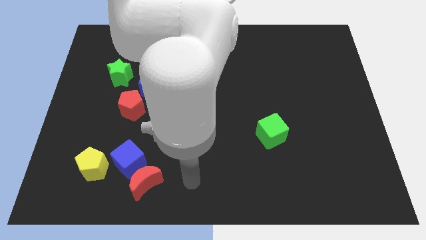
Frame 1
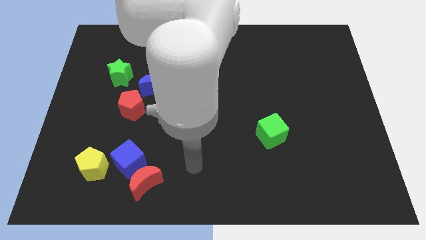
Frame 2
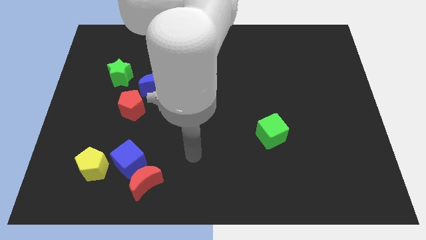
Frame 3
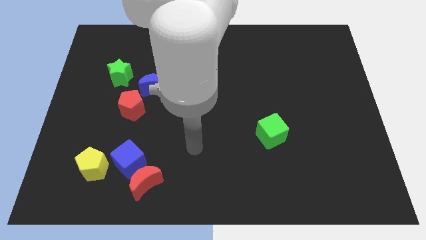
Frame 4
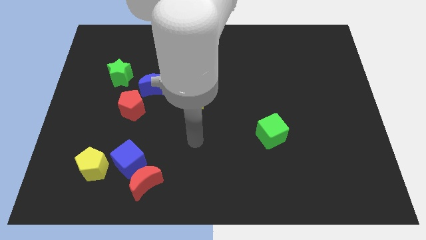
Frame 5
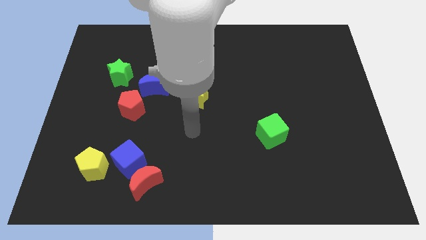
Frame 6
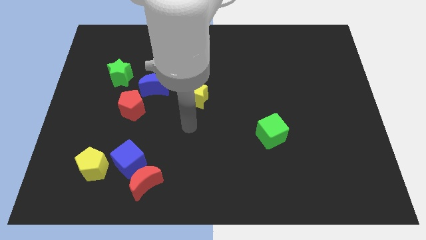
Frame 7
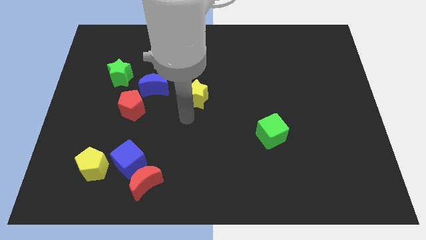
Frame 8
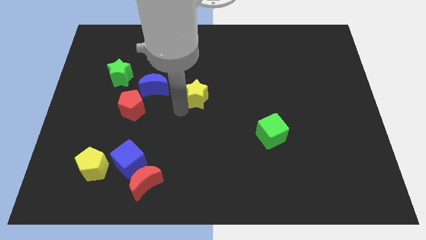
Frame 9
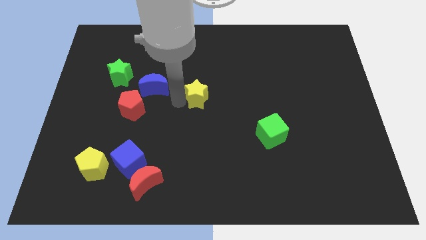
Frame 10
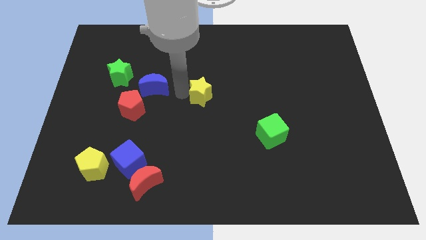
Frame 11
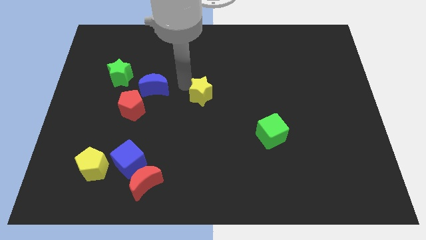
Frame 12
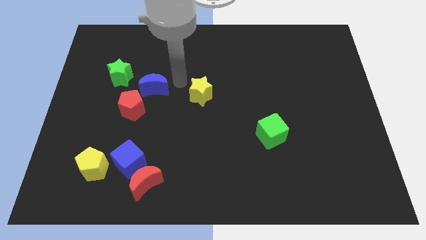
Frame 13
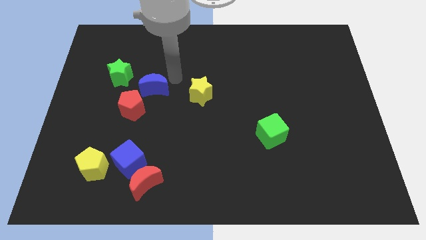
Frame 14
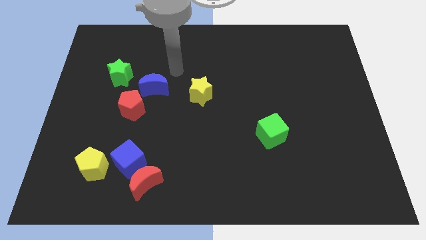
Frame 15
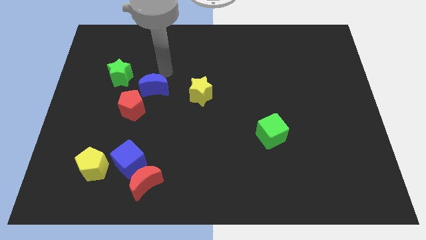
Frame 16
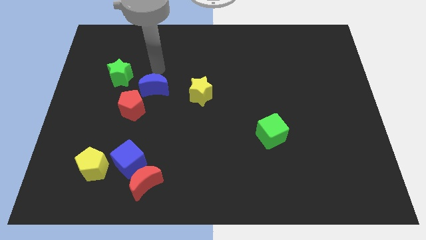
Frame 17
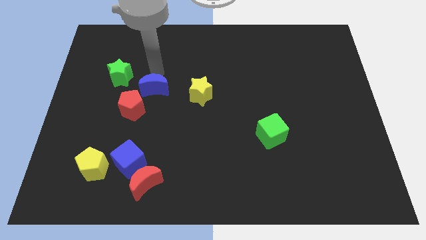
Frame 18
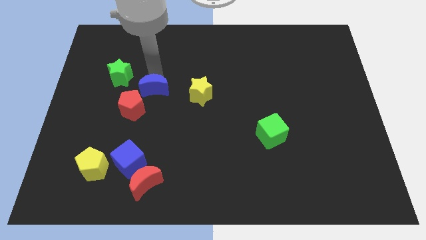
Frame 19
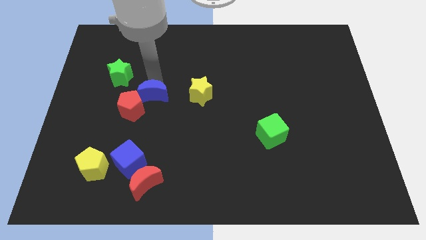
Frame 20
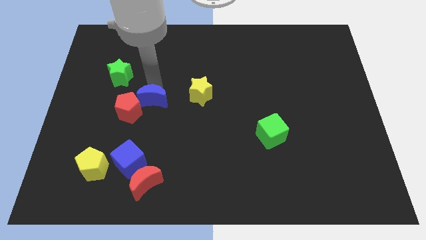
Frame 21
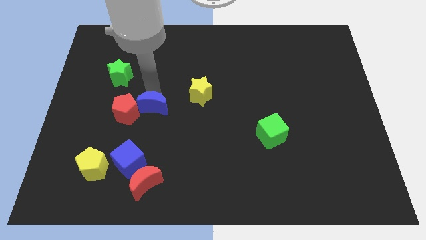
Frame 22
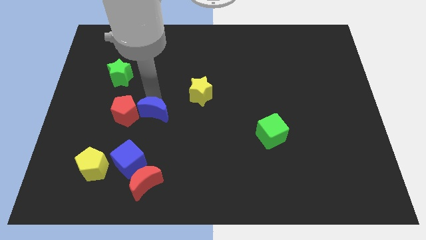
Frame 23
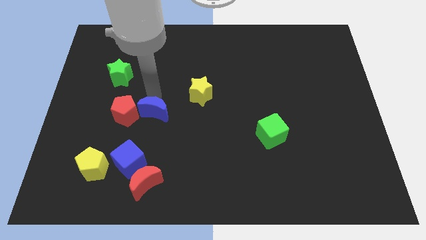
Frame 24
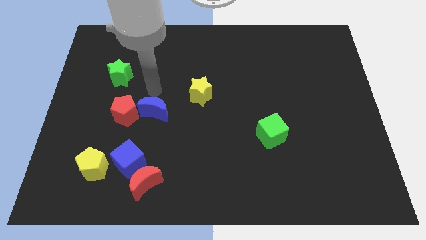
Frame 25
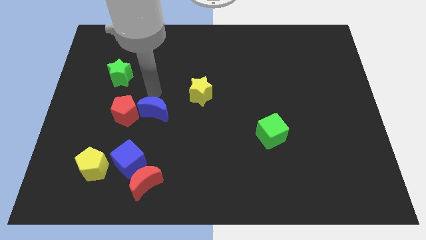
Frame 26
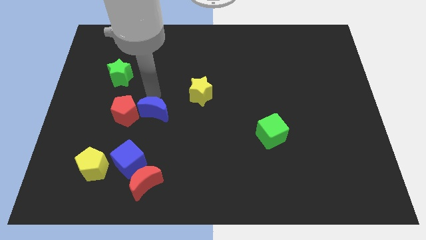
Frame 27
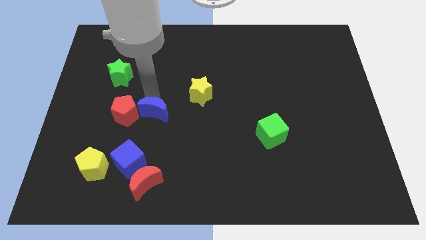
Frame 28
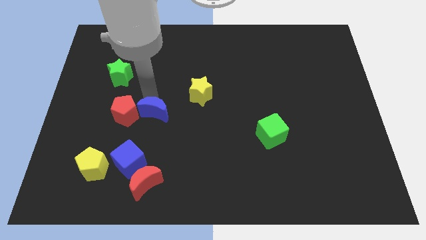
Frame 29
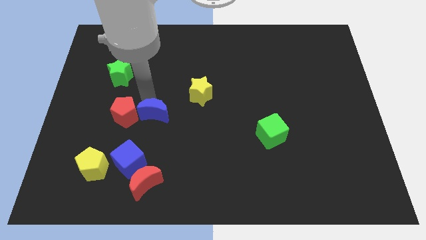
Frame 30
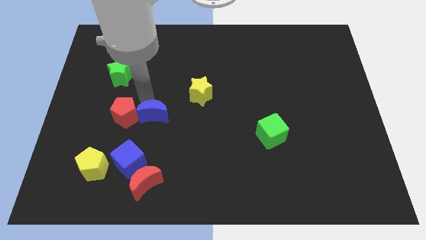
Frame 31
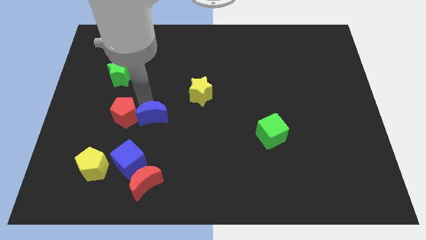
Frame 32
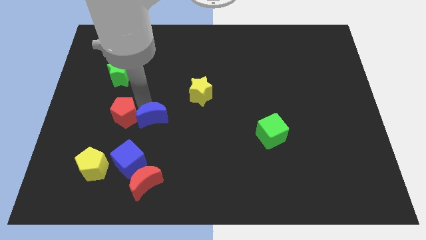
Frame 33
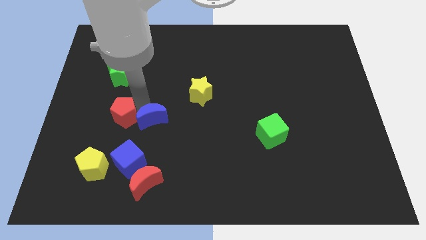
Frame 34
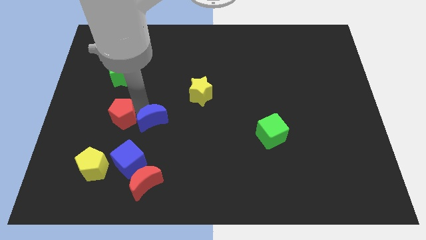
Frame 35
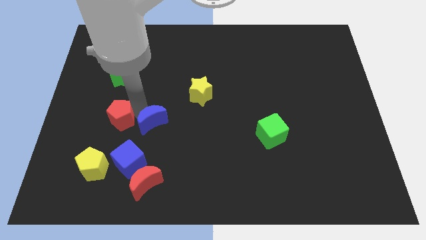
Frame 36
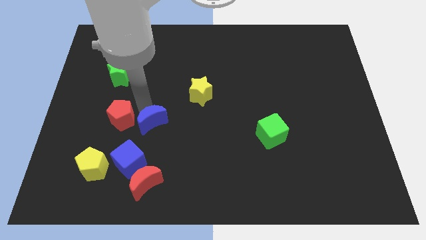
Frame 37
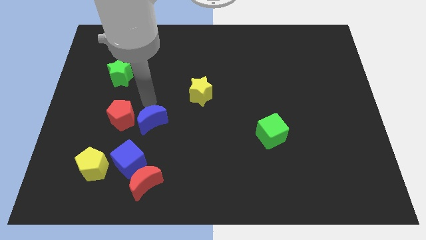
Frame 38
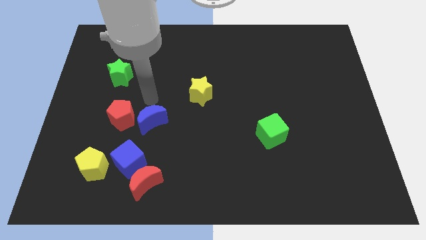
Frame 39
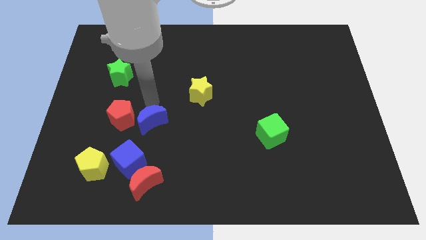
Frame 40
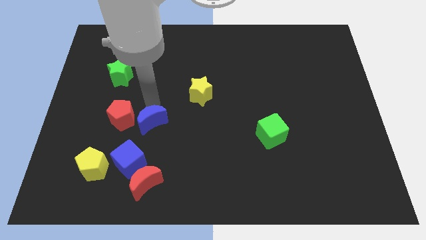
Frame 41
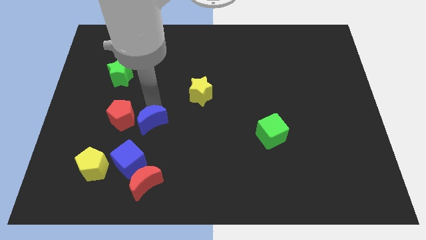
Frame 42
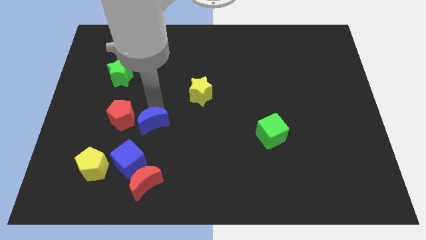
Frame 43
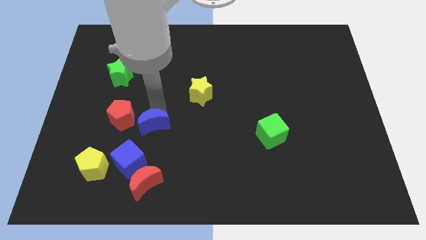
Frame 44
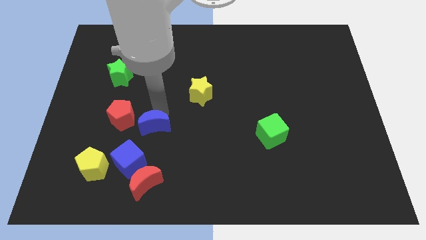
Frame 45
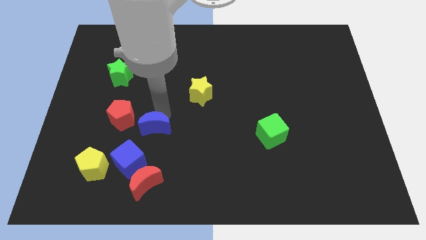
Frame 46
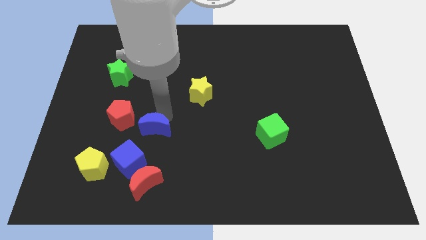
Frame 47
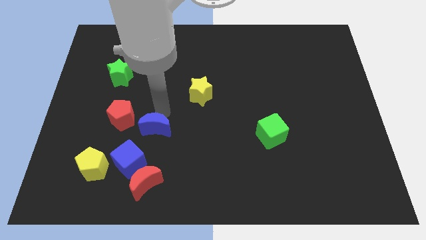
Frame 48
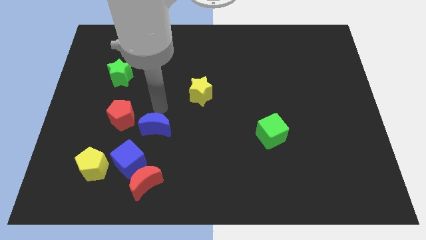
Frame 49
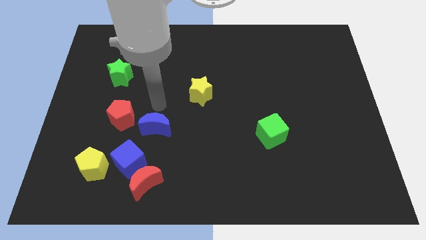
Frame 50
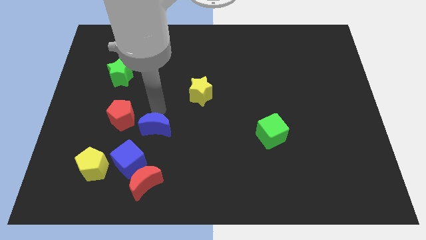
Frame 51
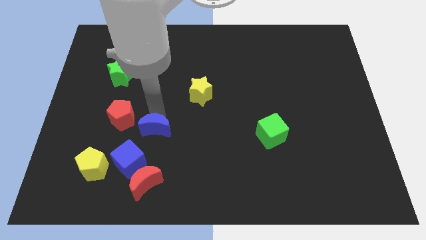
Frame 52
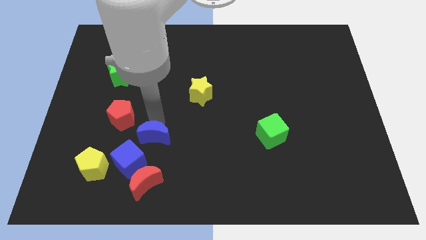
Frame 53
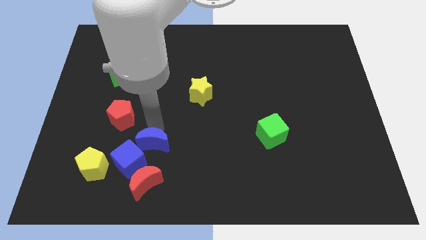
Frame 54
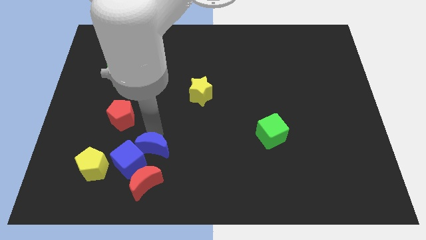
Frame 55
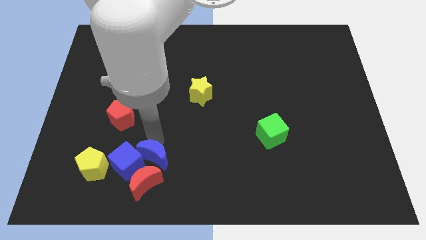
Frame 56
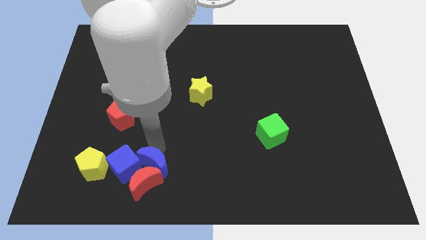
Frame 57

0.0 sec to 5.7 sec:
push the blue moon close to the red moon

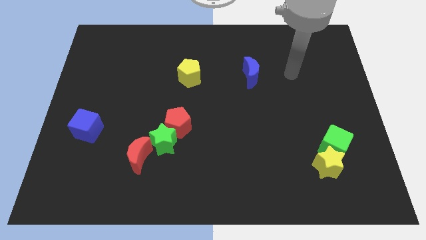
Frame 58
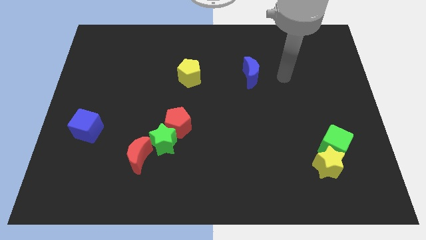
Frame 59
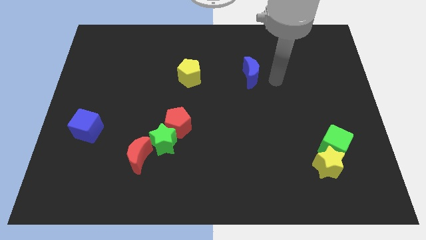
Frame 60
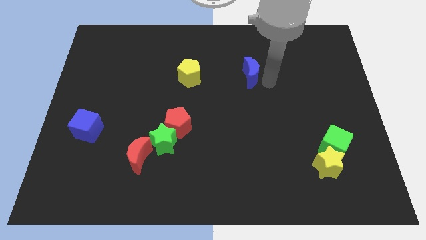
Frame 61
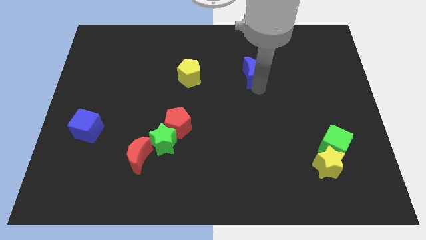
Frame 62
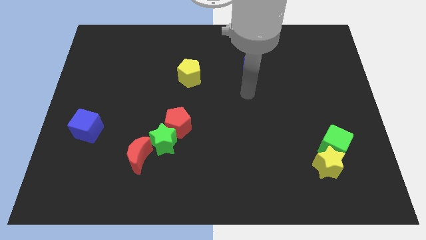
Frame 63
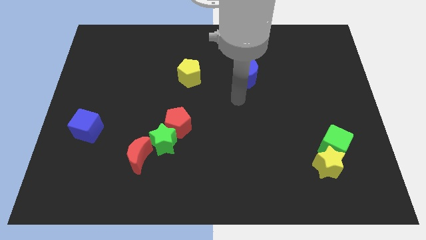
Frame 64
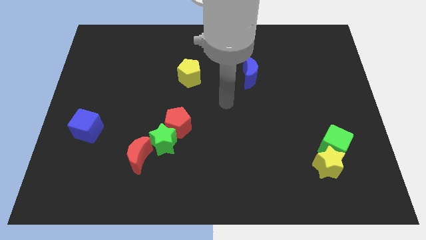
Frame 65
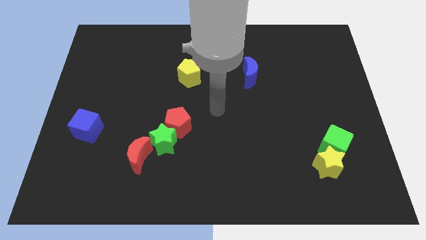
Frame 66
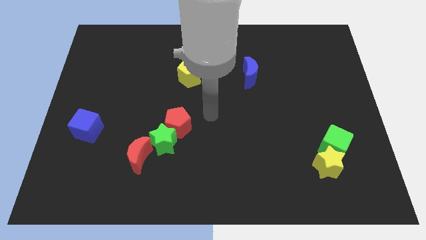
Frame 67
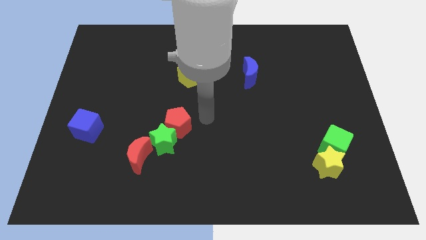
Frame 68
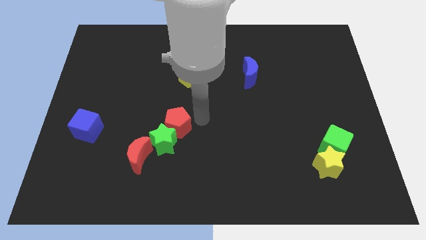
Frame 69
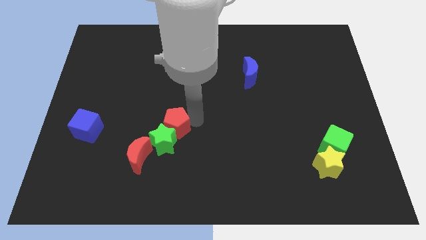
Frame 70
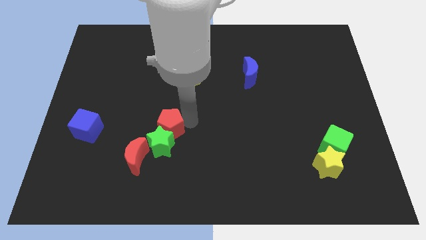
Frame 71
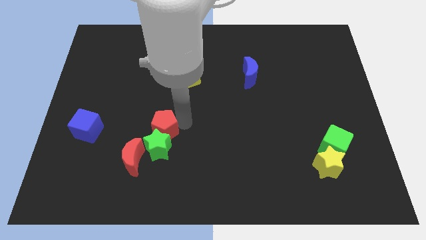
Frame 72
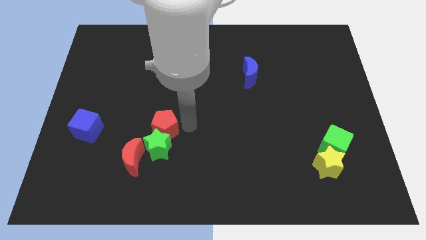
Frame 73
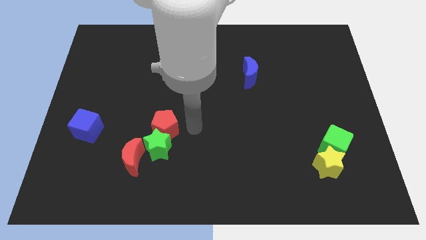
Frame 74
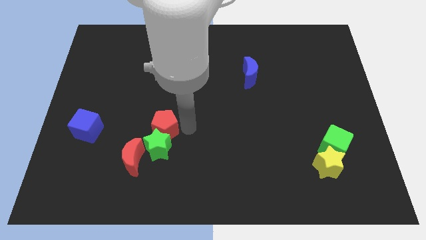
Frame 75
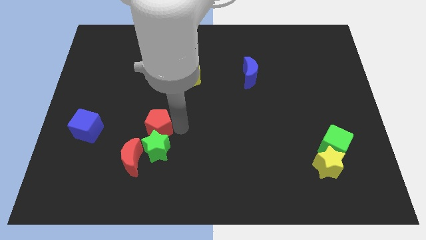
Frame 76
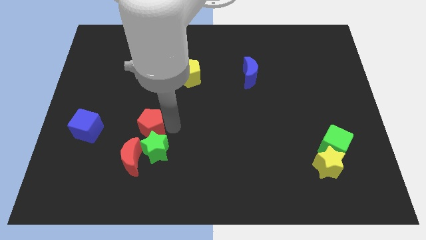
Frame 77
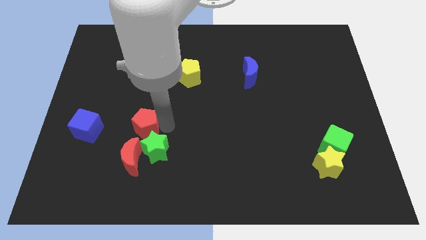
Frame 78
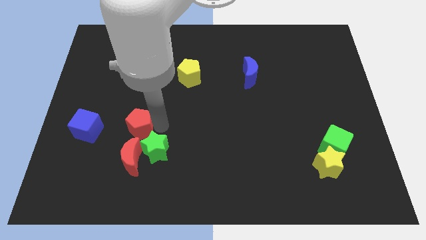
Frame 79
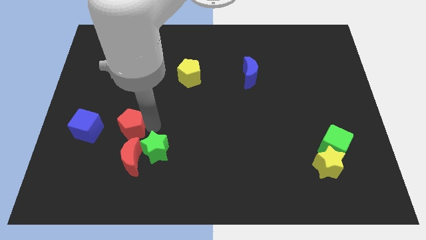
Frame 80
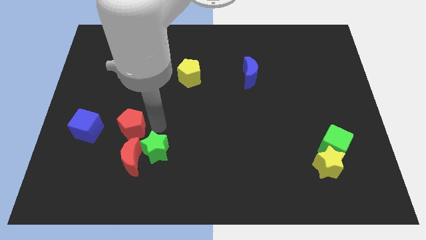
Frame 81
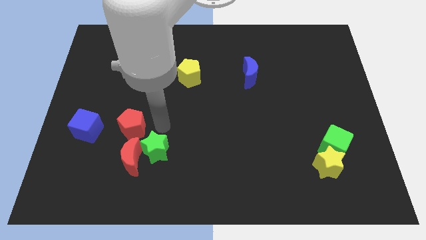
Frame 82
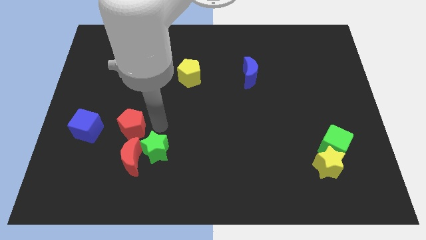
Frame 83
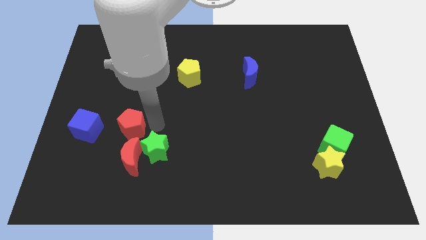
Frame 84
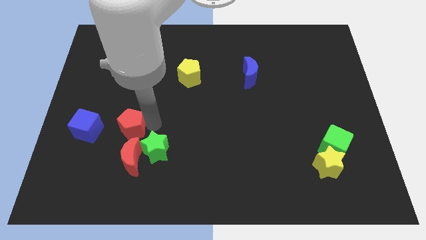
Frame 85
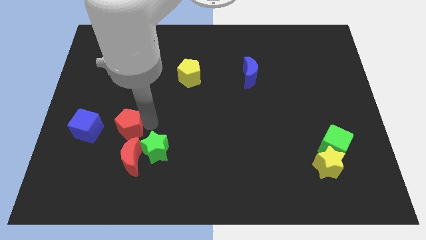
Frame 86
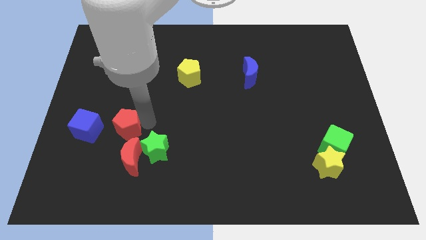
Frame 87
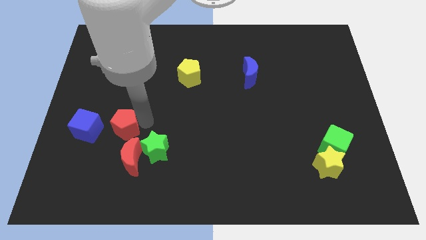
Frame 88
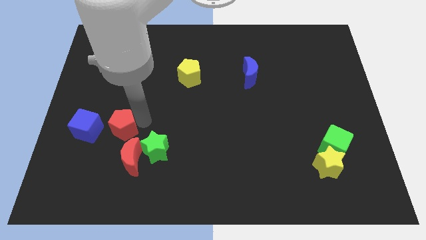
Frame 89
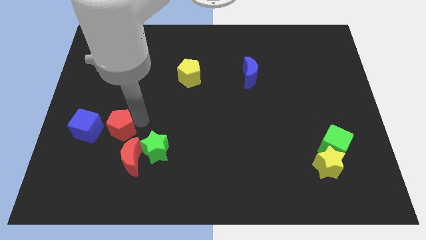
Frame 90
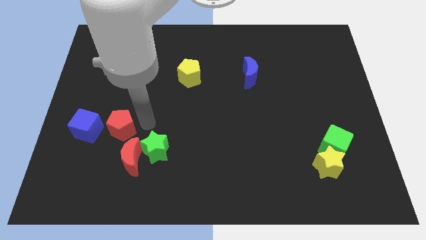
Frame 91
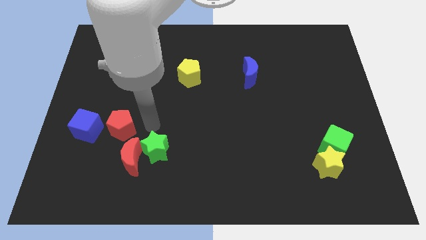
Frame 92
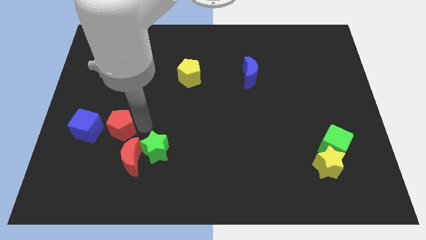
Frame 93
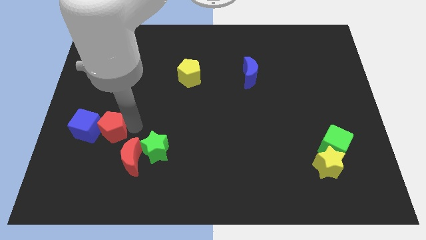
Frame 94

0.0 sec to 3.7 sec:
push the red pentagon next to the blue cube
